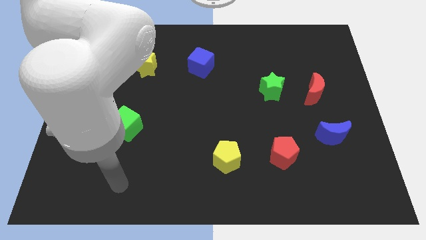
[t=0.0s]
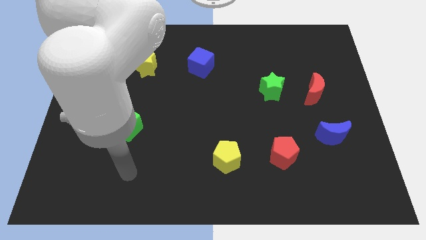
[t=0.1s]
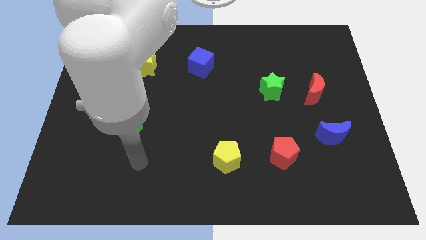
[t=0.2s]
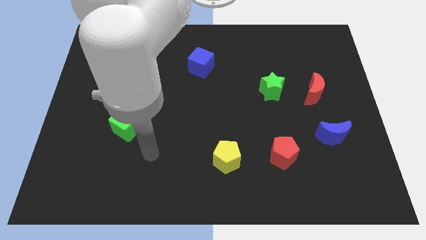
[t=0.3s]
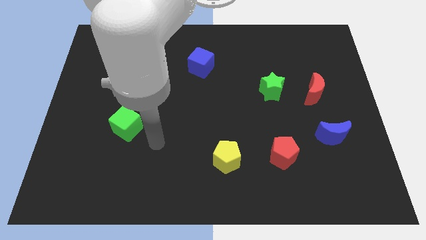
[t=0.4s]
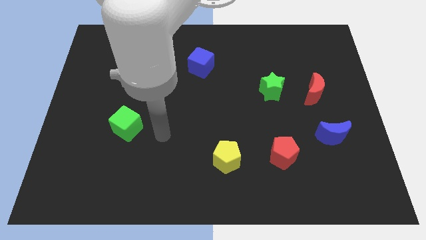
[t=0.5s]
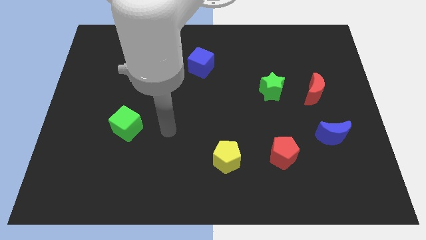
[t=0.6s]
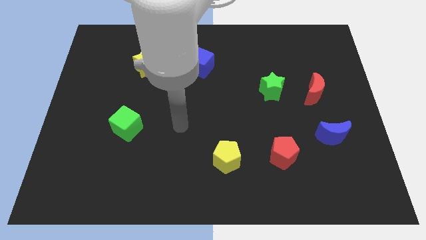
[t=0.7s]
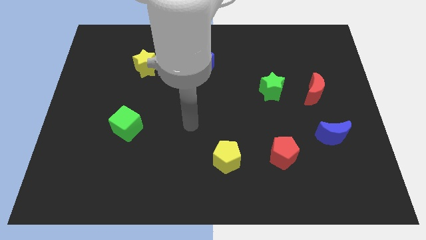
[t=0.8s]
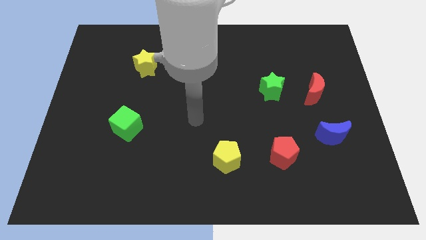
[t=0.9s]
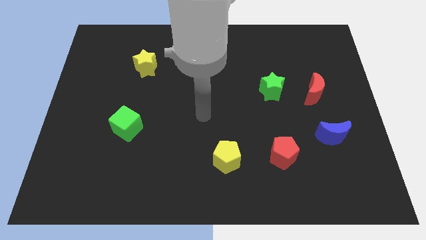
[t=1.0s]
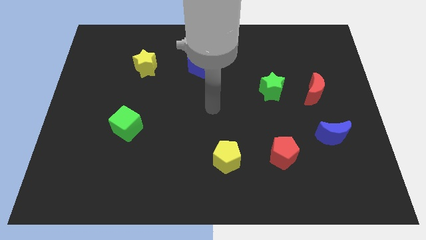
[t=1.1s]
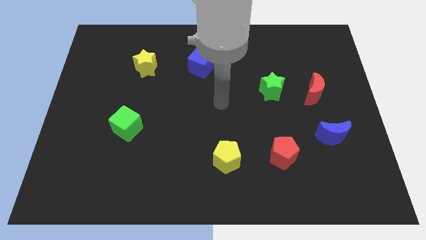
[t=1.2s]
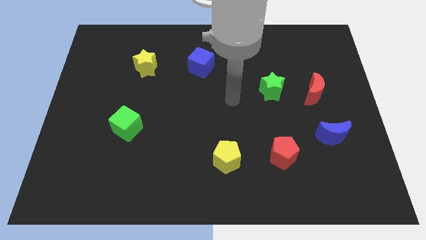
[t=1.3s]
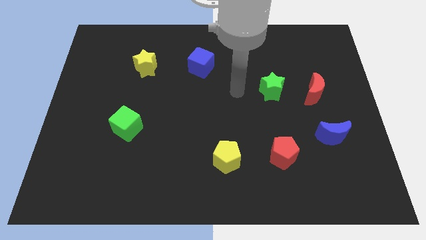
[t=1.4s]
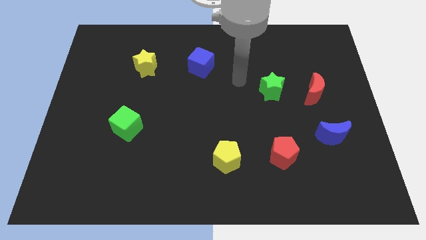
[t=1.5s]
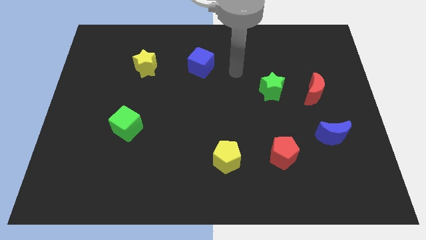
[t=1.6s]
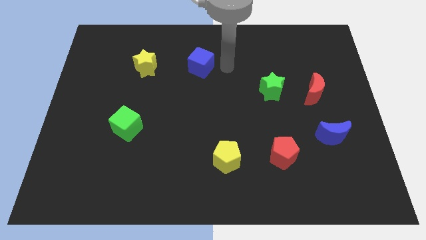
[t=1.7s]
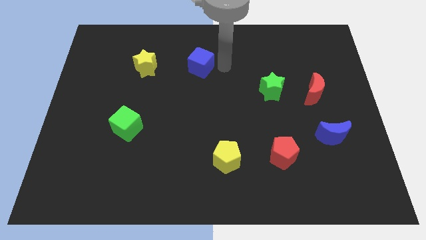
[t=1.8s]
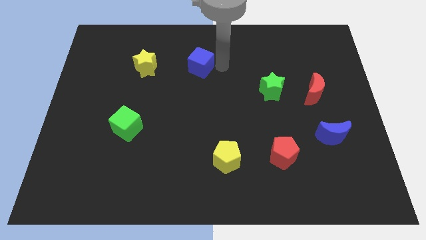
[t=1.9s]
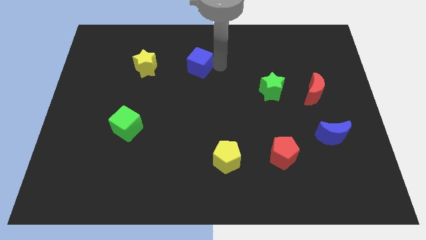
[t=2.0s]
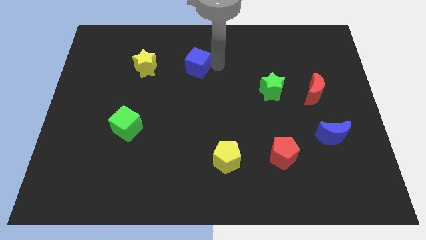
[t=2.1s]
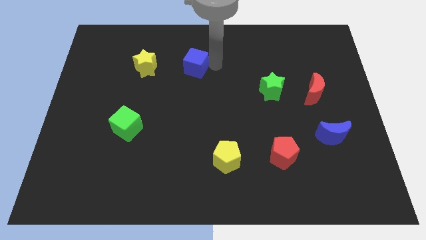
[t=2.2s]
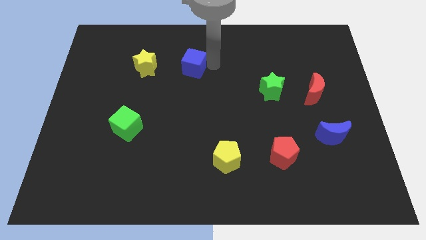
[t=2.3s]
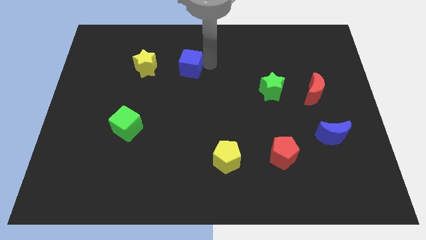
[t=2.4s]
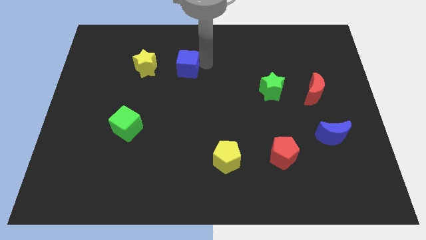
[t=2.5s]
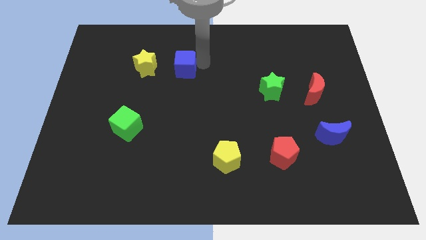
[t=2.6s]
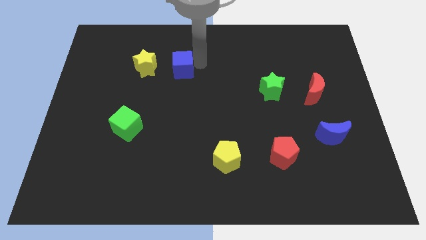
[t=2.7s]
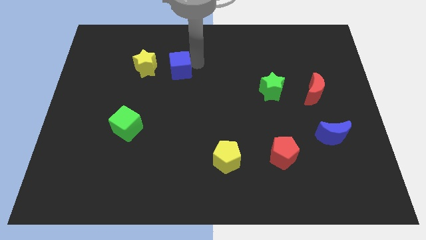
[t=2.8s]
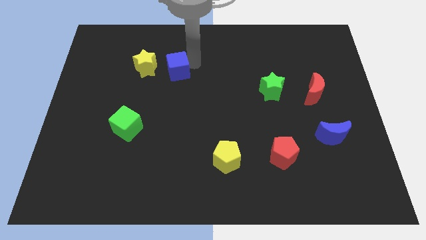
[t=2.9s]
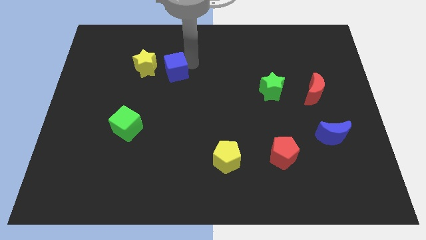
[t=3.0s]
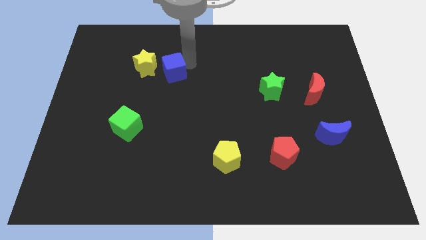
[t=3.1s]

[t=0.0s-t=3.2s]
push the blue cube to the left a little bit

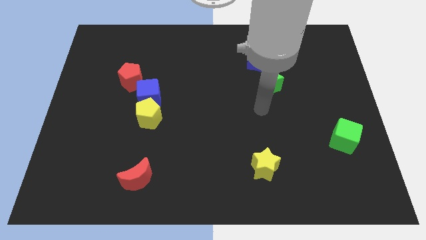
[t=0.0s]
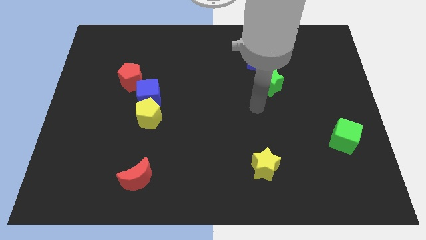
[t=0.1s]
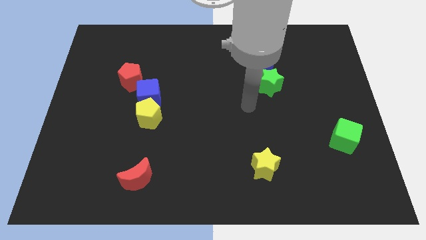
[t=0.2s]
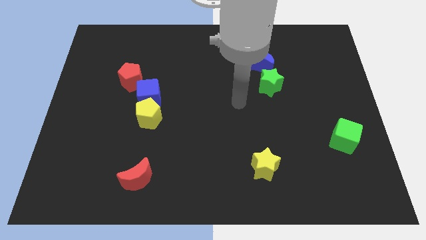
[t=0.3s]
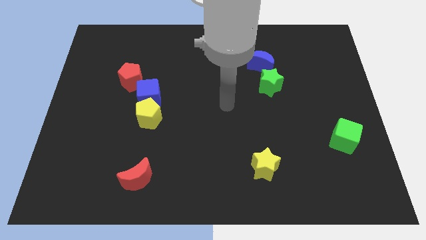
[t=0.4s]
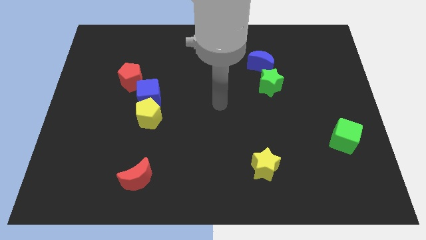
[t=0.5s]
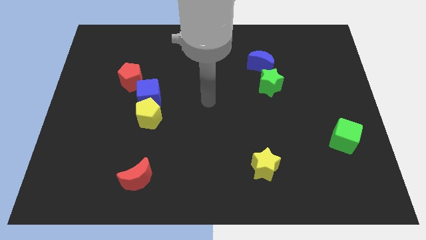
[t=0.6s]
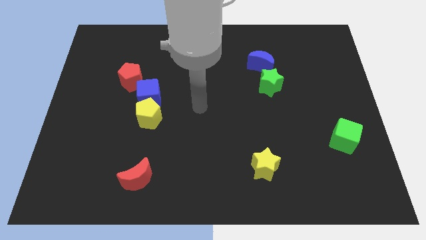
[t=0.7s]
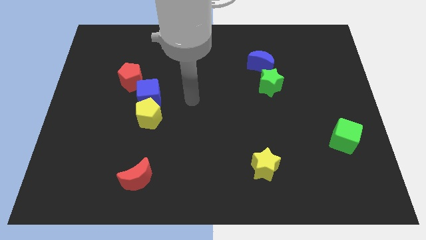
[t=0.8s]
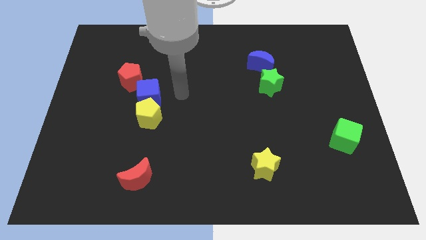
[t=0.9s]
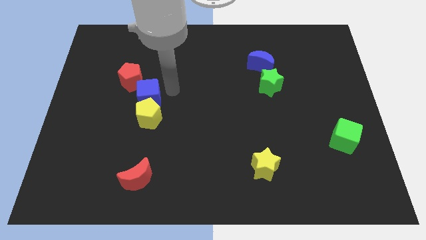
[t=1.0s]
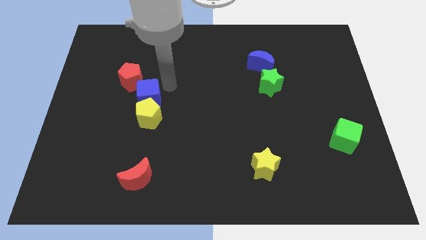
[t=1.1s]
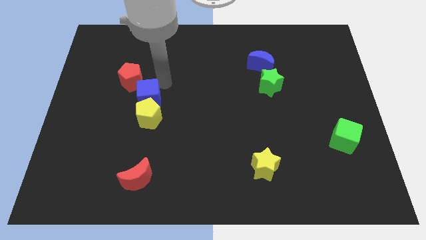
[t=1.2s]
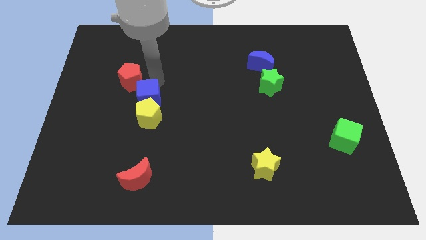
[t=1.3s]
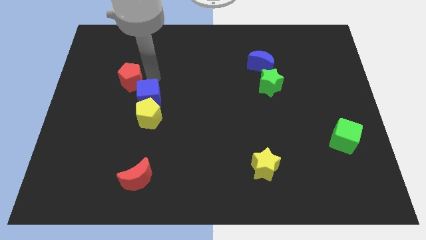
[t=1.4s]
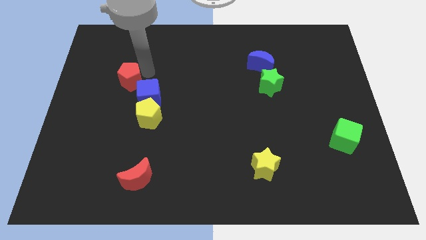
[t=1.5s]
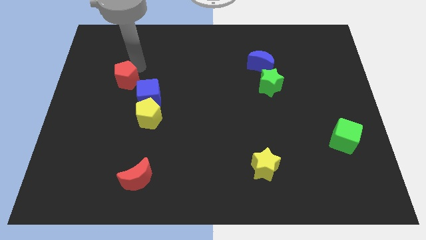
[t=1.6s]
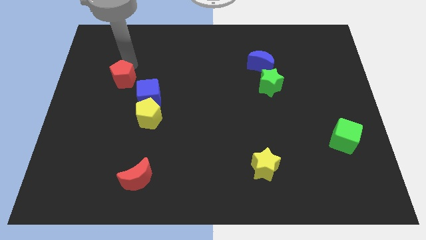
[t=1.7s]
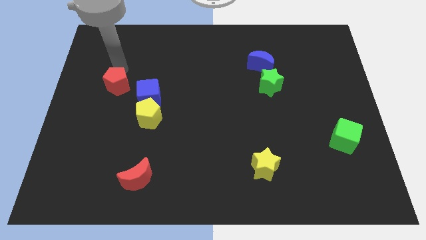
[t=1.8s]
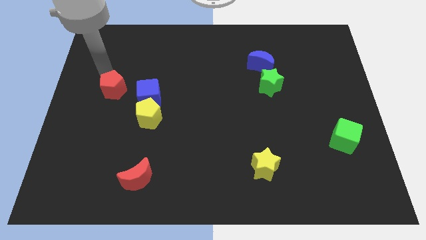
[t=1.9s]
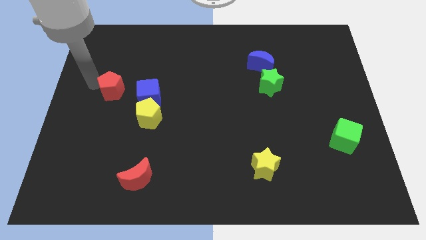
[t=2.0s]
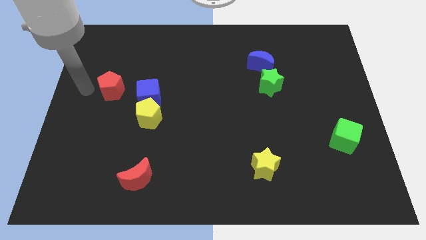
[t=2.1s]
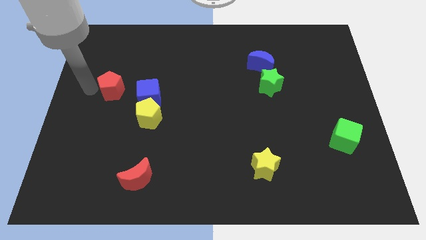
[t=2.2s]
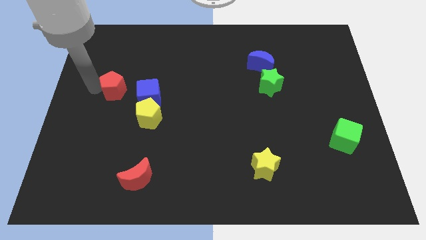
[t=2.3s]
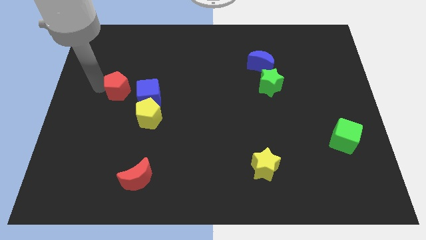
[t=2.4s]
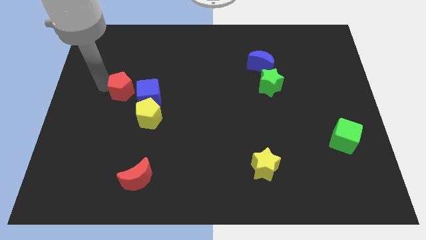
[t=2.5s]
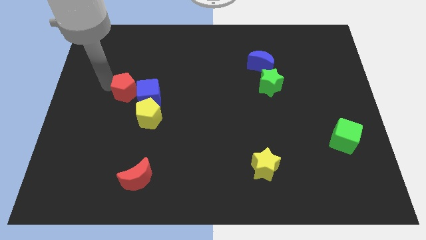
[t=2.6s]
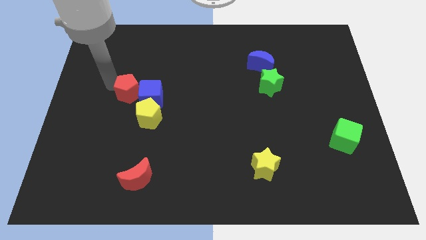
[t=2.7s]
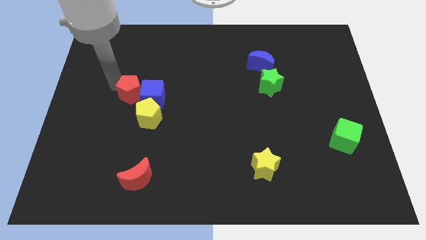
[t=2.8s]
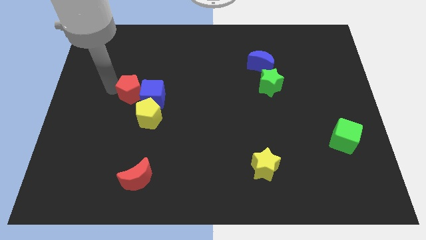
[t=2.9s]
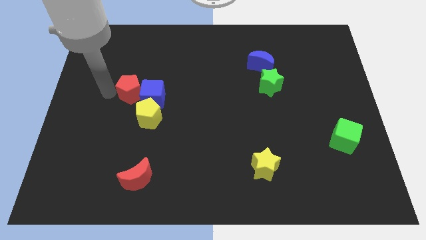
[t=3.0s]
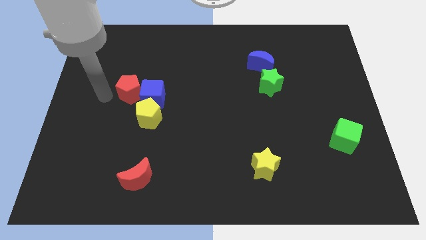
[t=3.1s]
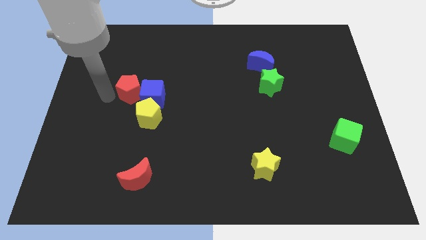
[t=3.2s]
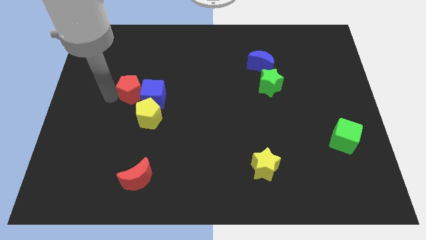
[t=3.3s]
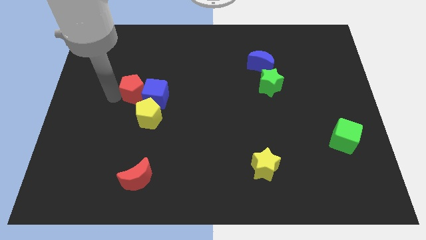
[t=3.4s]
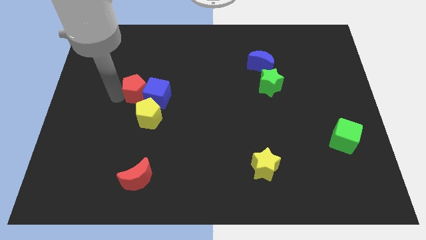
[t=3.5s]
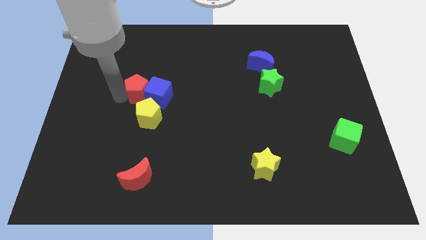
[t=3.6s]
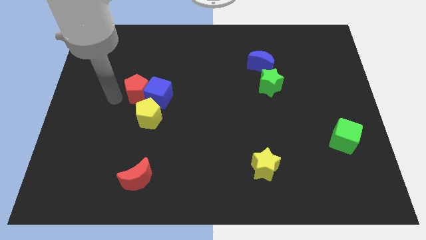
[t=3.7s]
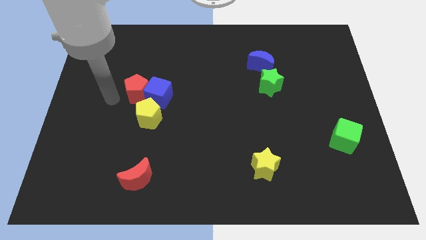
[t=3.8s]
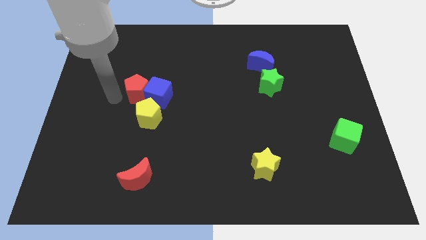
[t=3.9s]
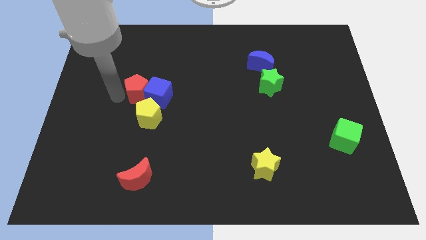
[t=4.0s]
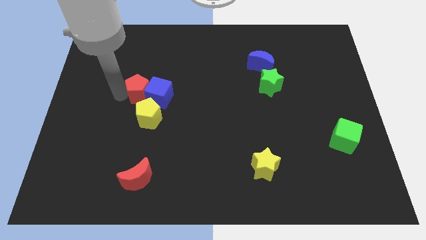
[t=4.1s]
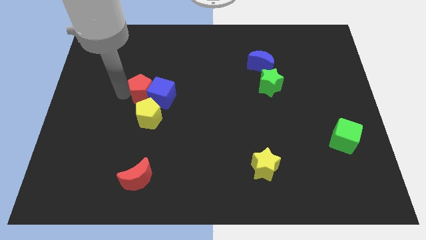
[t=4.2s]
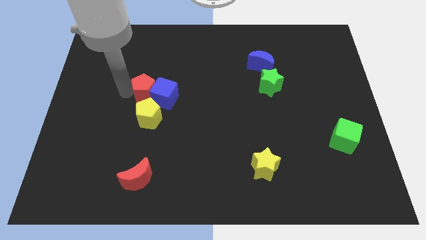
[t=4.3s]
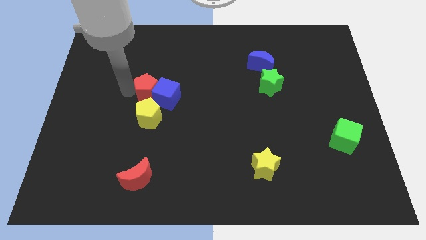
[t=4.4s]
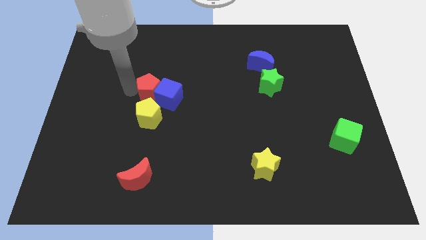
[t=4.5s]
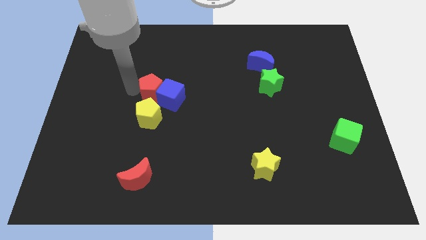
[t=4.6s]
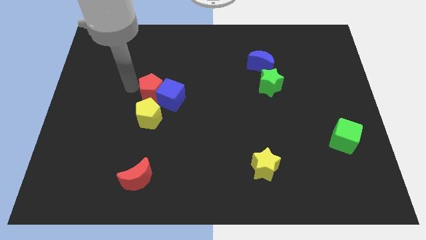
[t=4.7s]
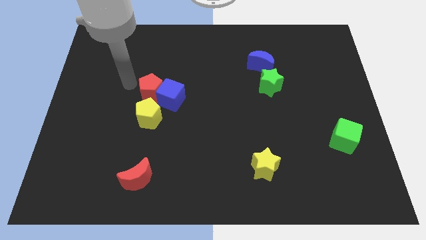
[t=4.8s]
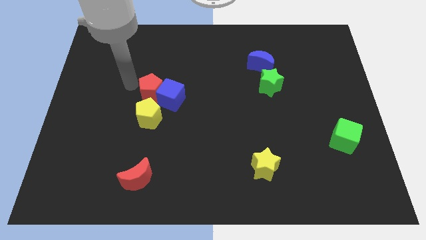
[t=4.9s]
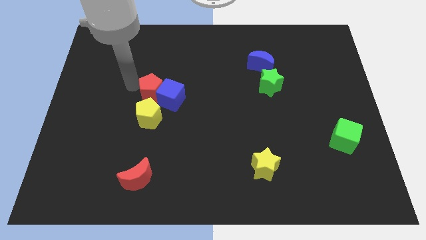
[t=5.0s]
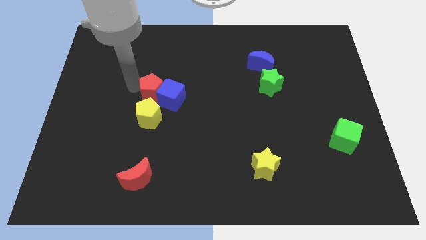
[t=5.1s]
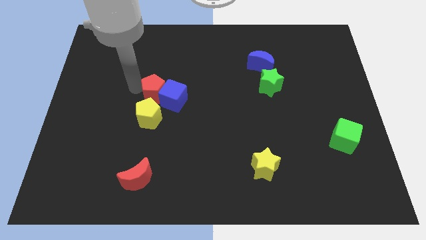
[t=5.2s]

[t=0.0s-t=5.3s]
slide the red pentagon somewhat down and right
